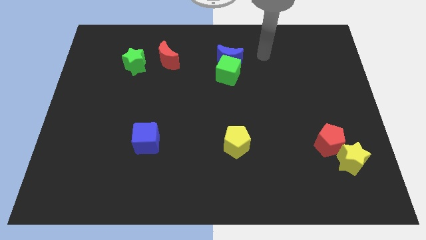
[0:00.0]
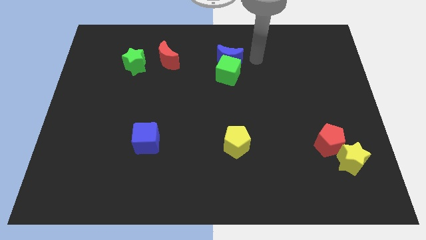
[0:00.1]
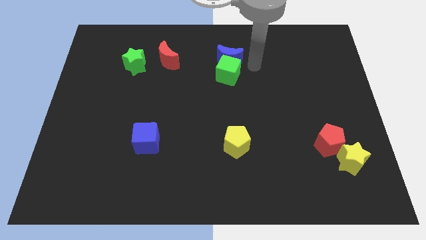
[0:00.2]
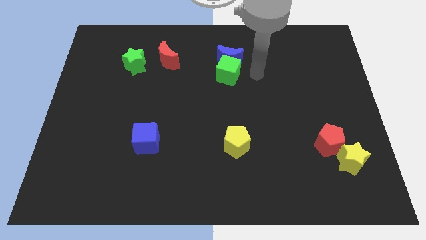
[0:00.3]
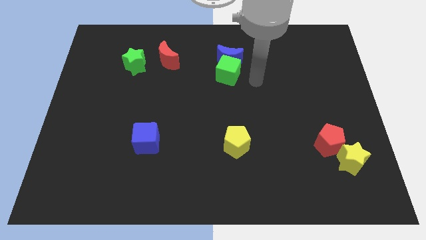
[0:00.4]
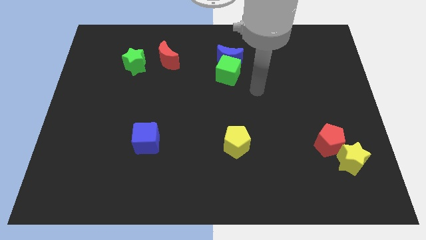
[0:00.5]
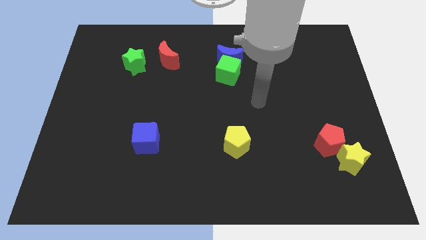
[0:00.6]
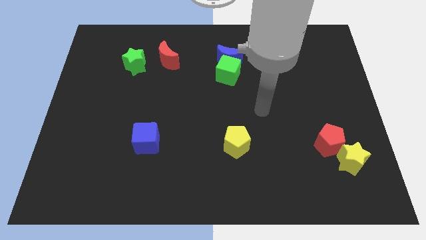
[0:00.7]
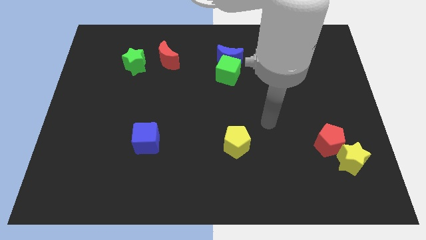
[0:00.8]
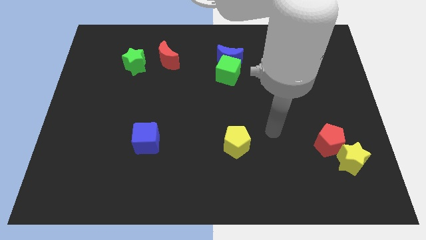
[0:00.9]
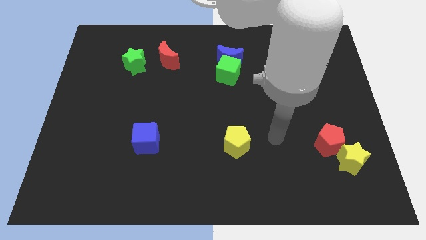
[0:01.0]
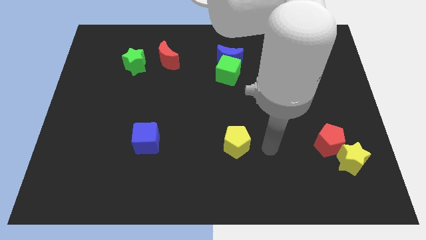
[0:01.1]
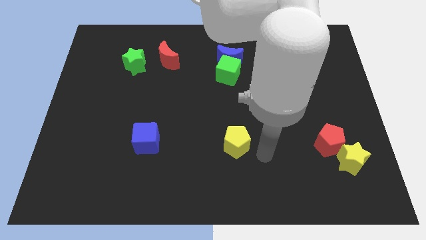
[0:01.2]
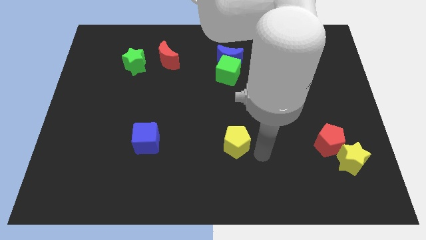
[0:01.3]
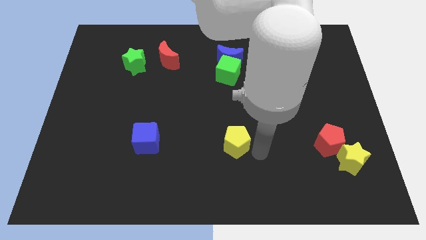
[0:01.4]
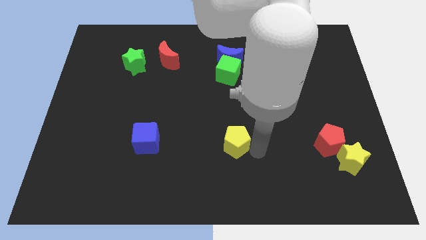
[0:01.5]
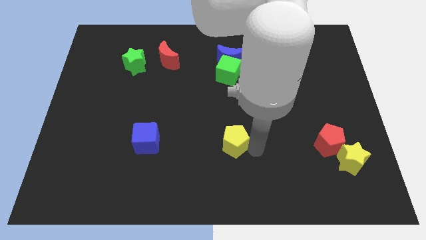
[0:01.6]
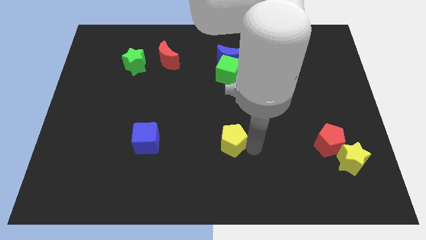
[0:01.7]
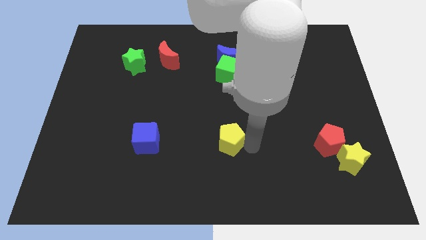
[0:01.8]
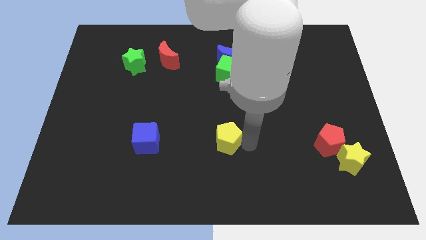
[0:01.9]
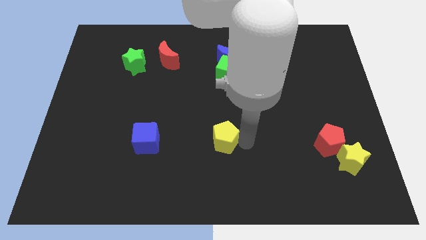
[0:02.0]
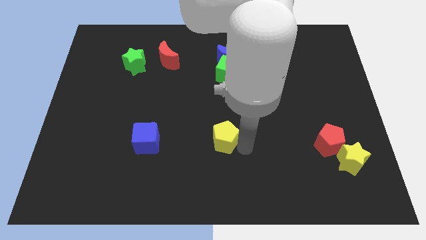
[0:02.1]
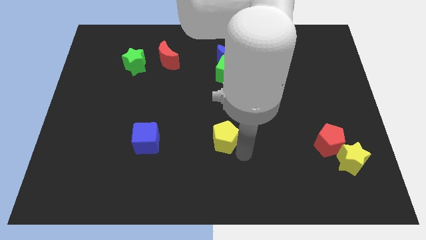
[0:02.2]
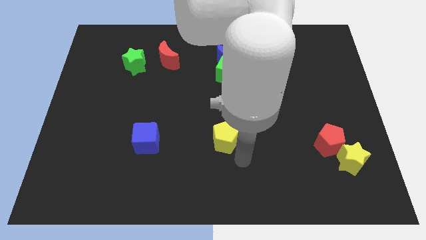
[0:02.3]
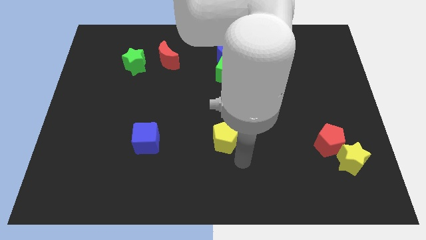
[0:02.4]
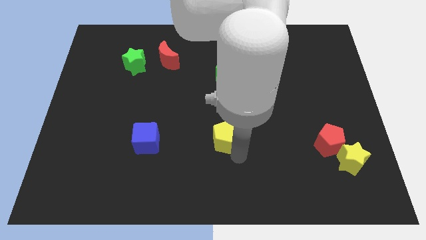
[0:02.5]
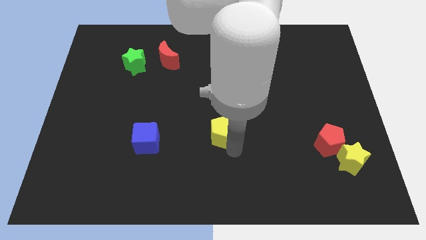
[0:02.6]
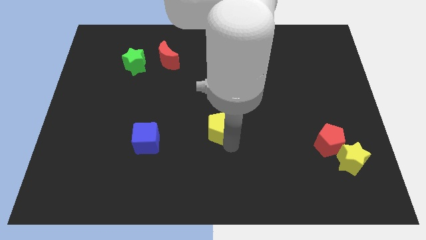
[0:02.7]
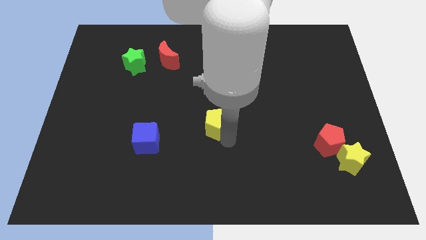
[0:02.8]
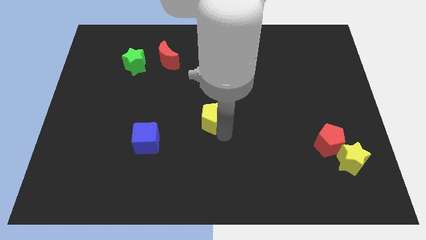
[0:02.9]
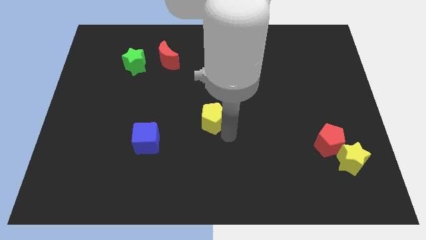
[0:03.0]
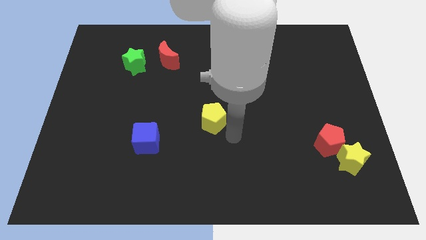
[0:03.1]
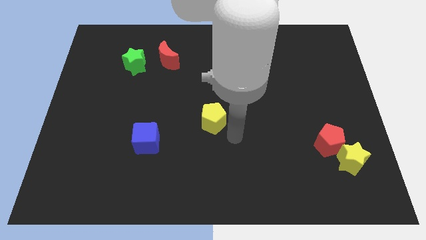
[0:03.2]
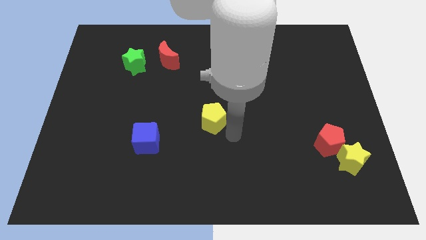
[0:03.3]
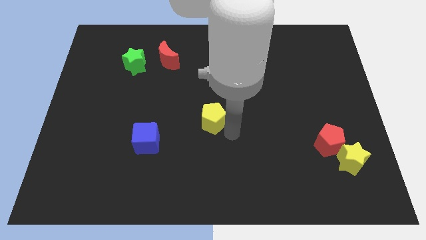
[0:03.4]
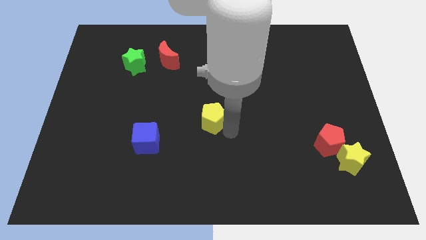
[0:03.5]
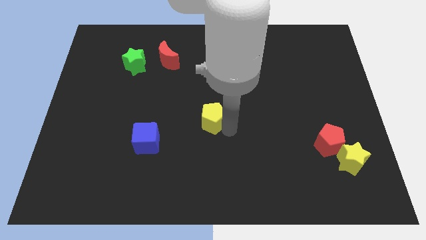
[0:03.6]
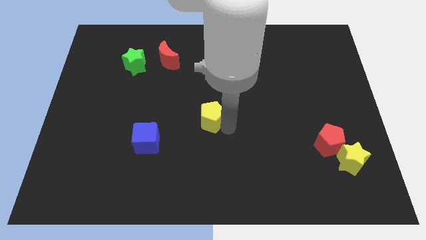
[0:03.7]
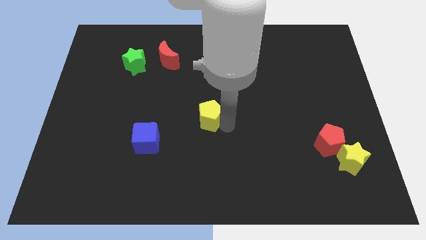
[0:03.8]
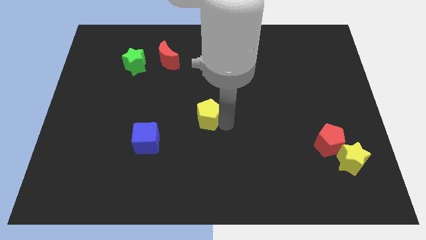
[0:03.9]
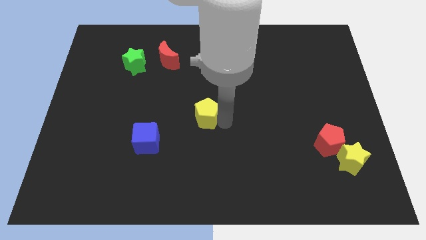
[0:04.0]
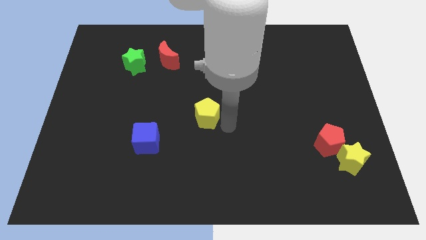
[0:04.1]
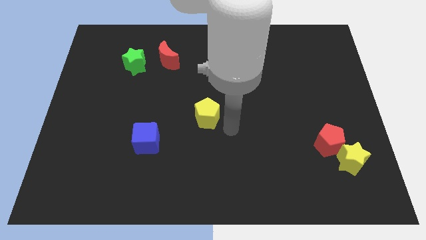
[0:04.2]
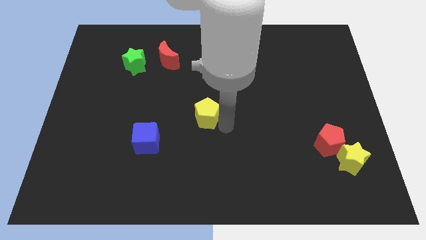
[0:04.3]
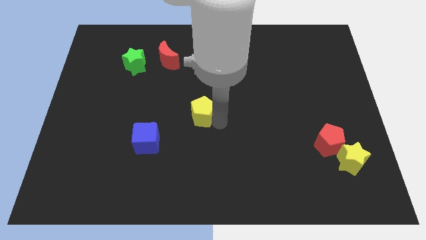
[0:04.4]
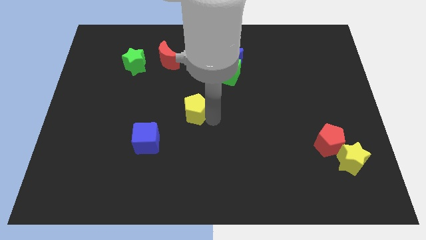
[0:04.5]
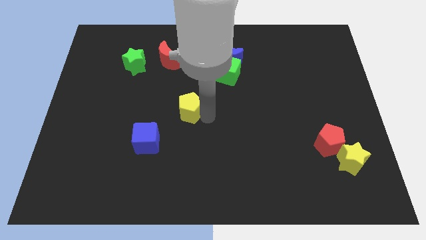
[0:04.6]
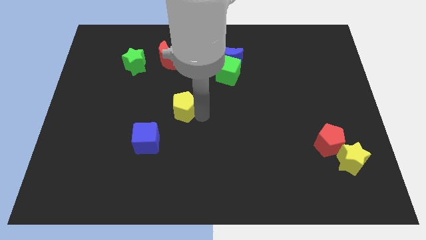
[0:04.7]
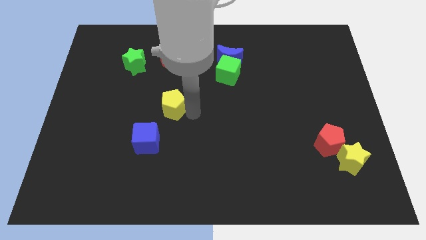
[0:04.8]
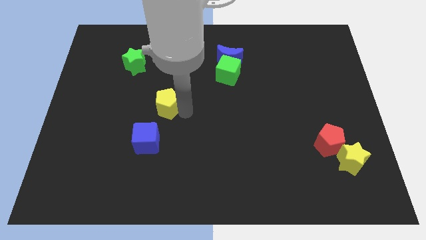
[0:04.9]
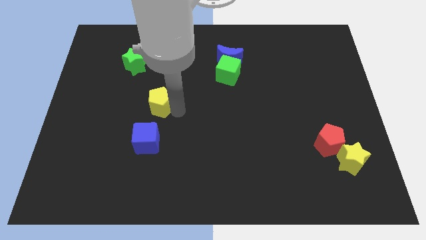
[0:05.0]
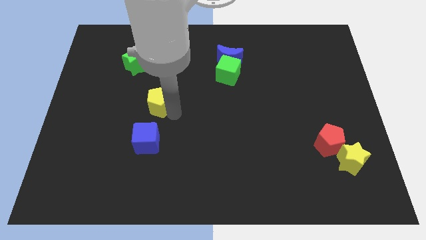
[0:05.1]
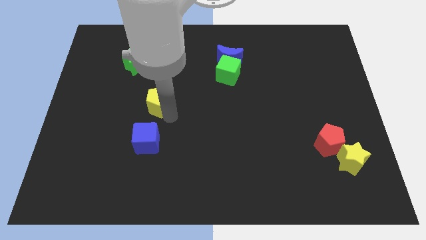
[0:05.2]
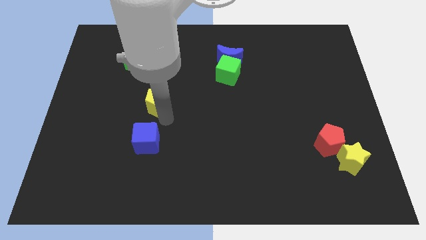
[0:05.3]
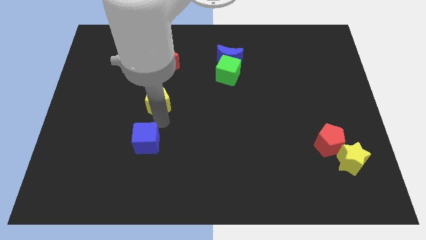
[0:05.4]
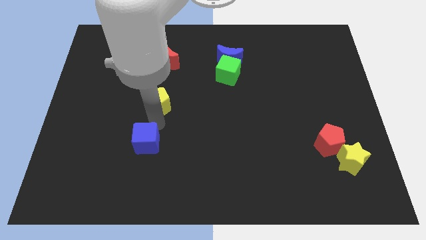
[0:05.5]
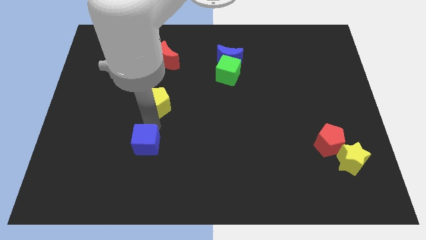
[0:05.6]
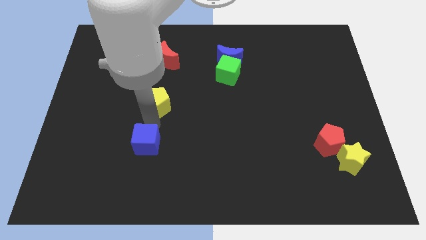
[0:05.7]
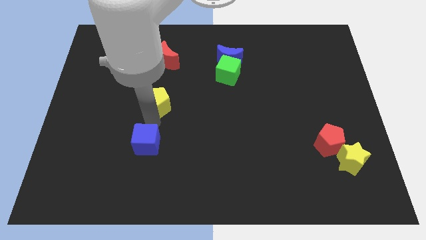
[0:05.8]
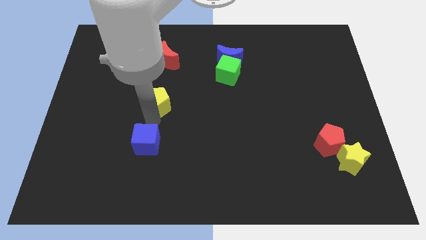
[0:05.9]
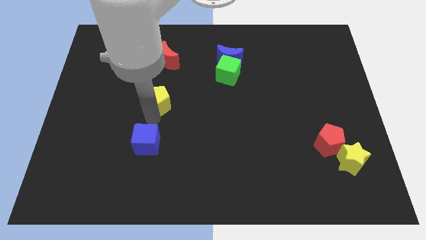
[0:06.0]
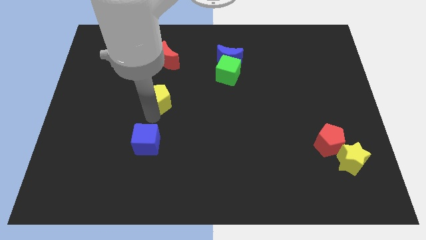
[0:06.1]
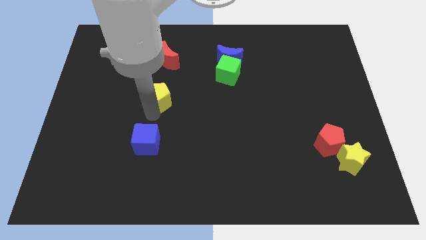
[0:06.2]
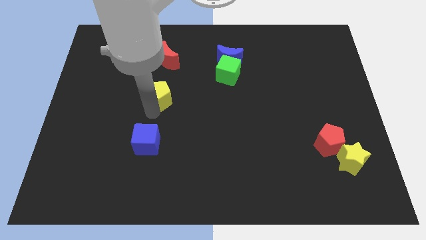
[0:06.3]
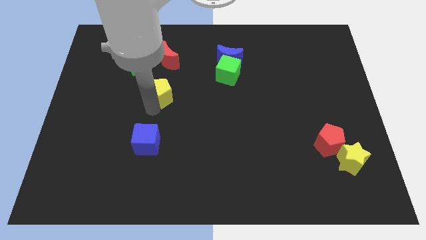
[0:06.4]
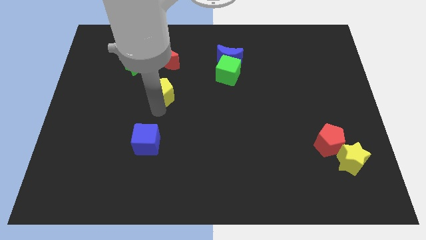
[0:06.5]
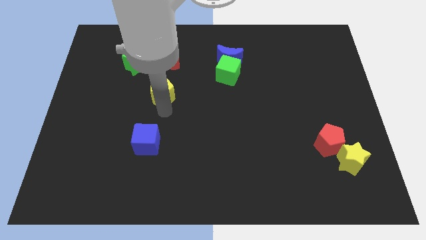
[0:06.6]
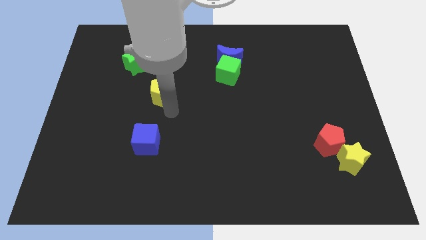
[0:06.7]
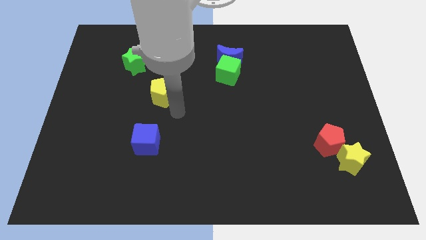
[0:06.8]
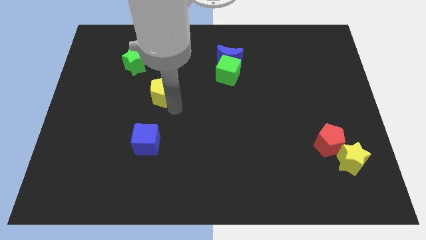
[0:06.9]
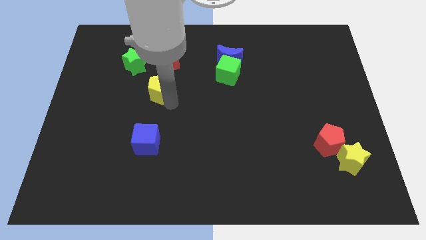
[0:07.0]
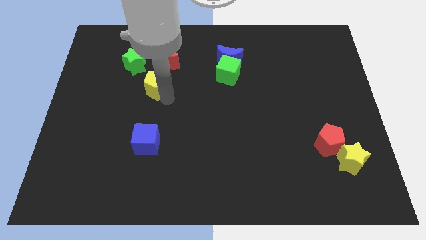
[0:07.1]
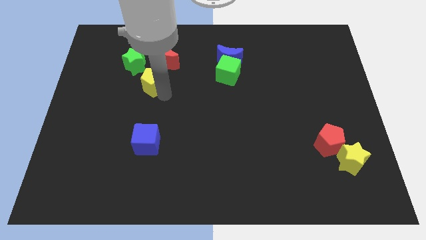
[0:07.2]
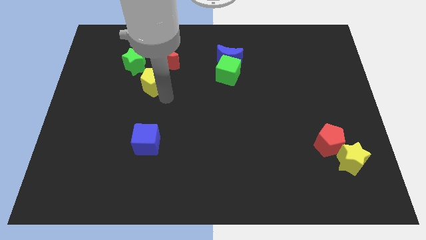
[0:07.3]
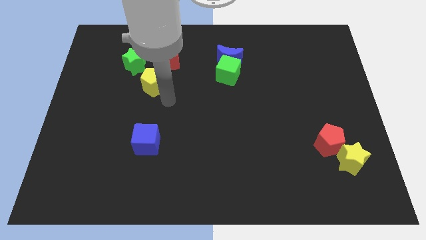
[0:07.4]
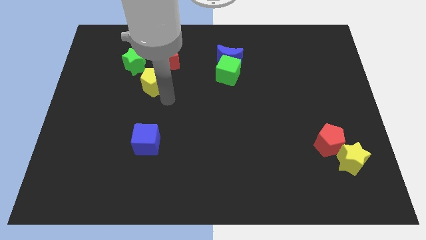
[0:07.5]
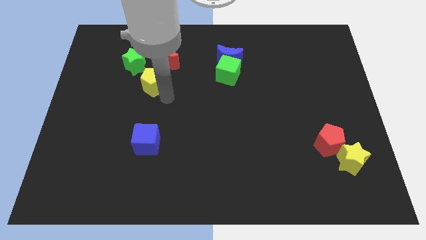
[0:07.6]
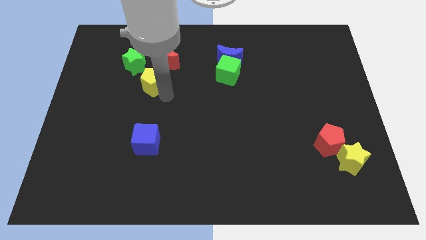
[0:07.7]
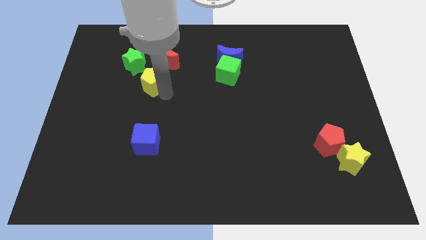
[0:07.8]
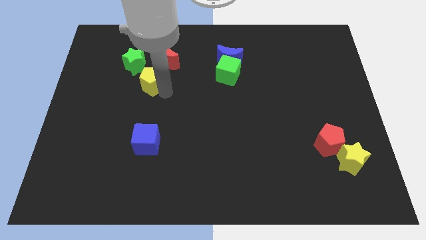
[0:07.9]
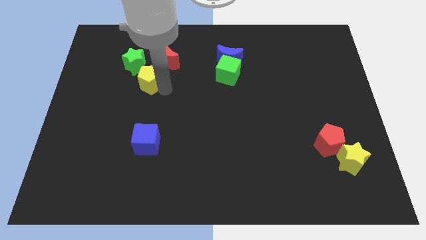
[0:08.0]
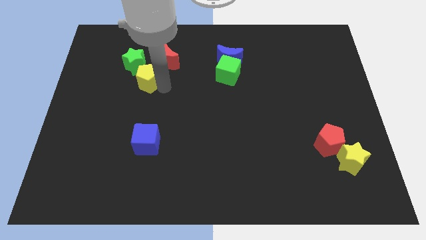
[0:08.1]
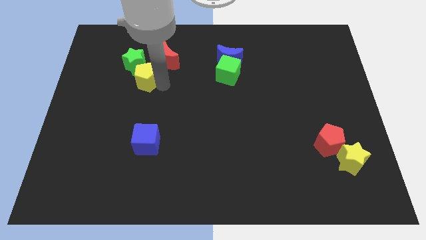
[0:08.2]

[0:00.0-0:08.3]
slide the yellow pentagon to the green star
